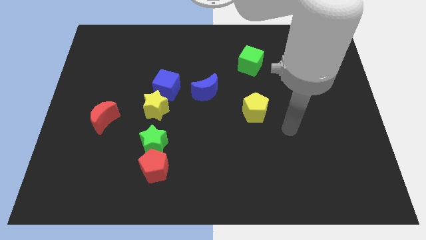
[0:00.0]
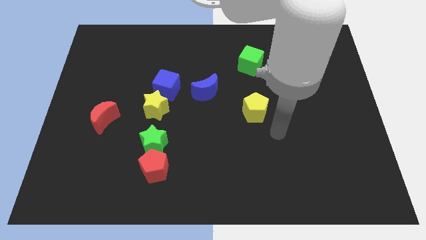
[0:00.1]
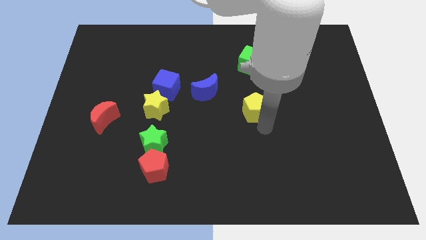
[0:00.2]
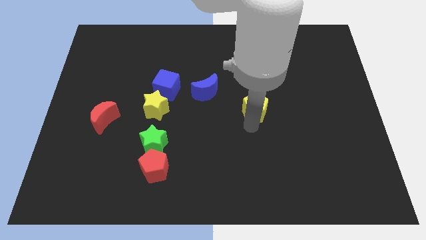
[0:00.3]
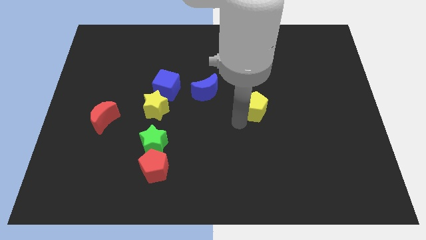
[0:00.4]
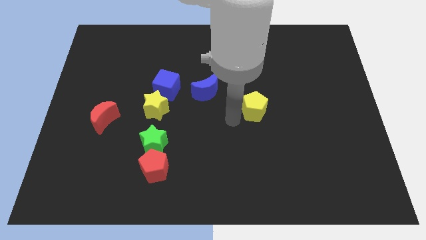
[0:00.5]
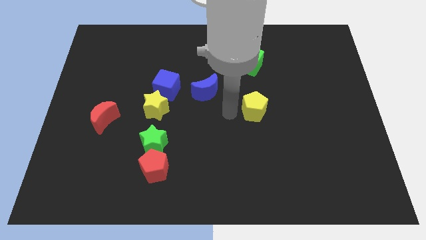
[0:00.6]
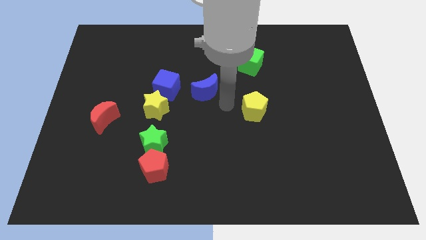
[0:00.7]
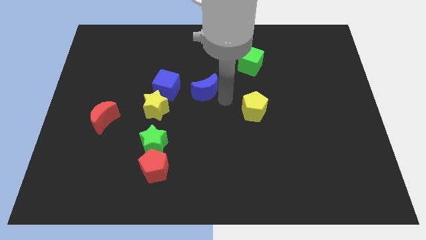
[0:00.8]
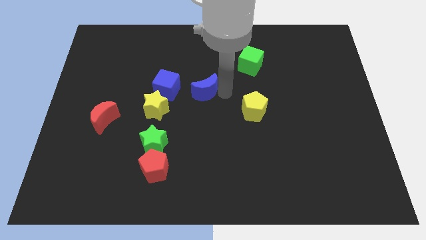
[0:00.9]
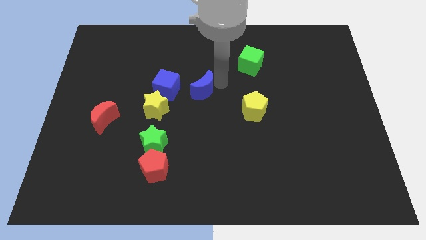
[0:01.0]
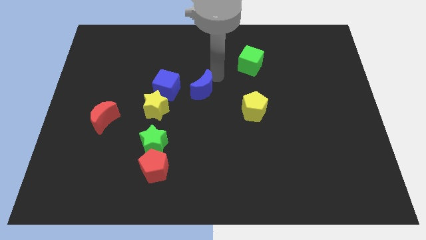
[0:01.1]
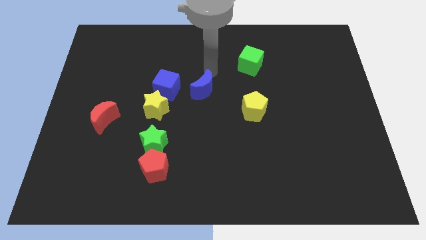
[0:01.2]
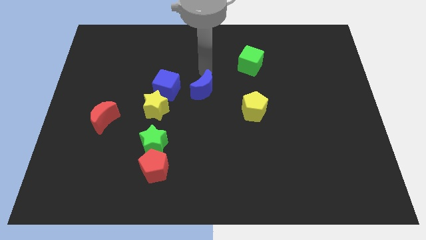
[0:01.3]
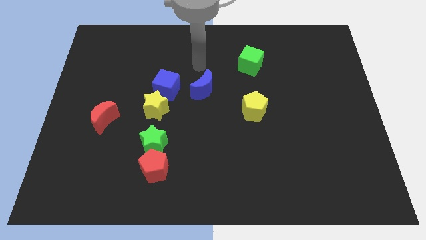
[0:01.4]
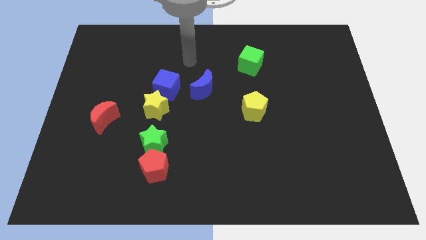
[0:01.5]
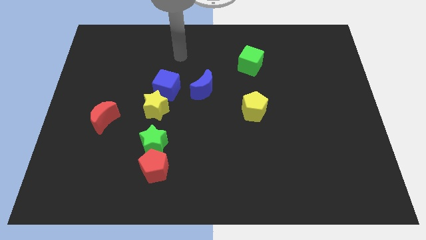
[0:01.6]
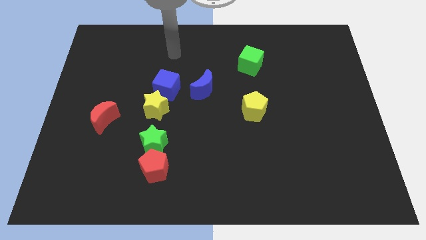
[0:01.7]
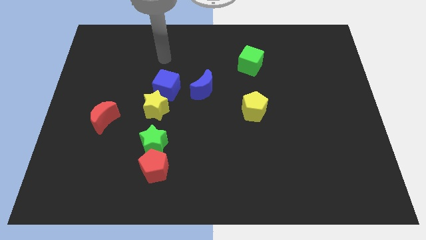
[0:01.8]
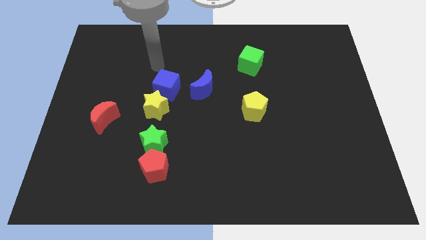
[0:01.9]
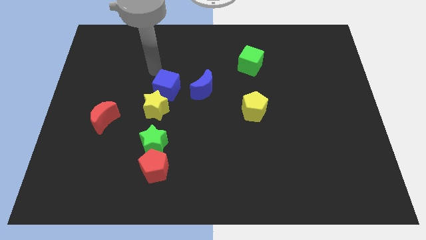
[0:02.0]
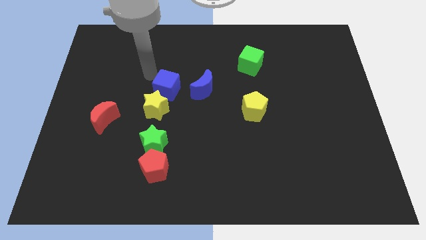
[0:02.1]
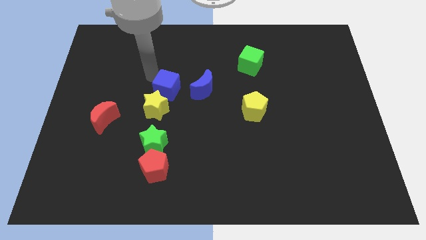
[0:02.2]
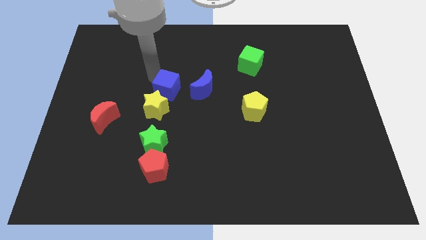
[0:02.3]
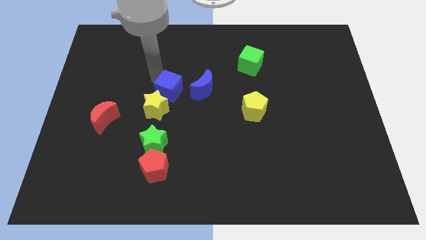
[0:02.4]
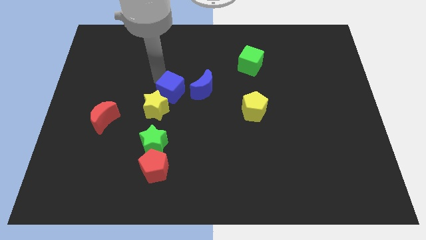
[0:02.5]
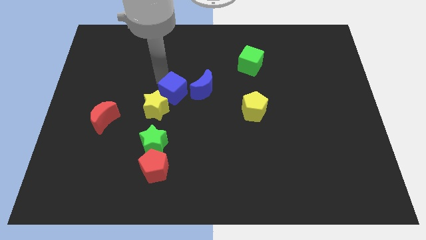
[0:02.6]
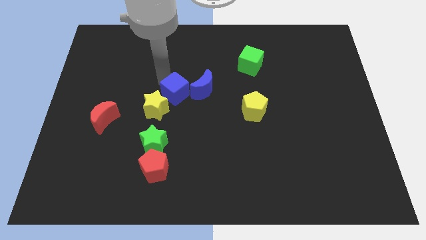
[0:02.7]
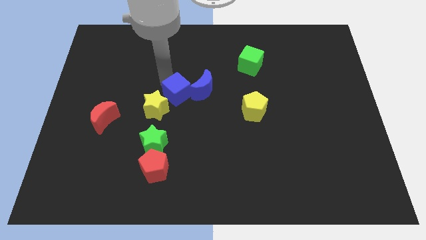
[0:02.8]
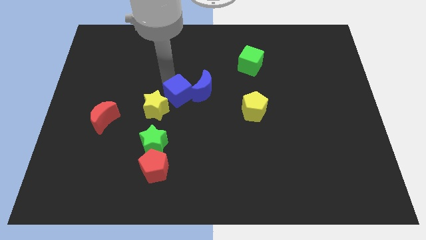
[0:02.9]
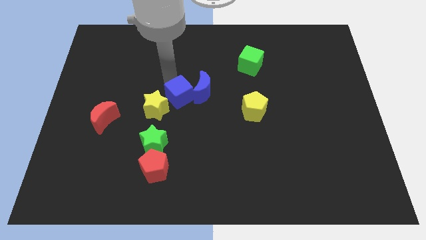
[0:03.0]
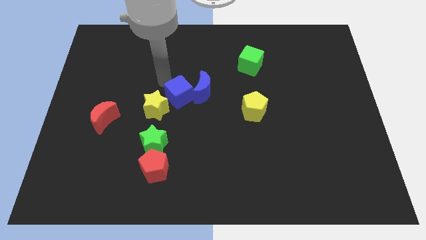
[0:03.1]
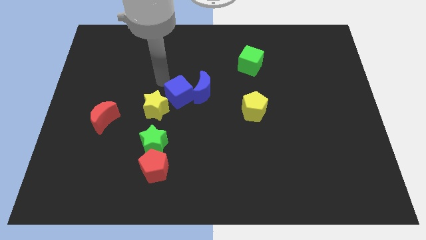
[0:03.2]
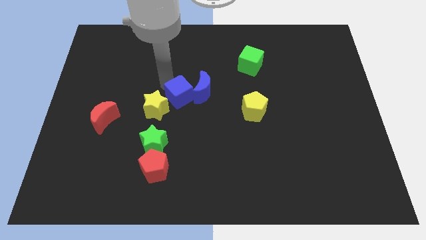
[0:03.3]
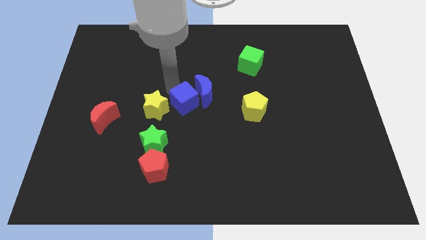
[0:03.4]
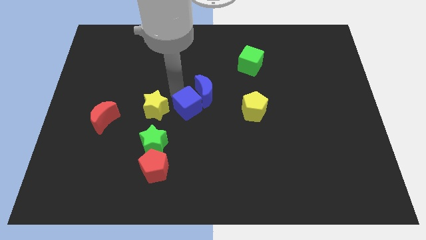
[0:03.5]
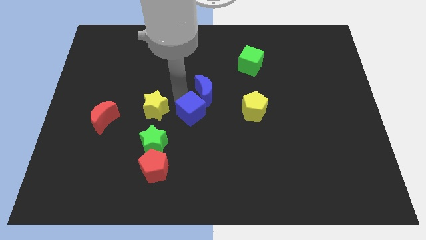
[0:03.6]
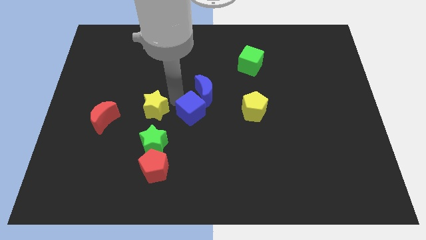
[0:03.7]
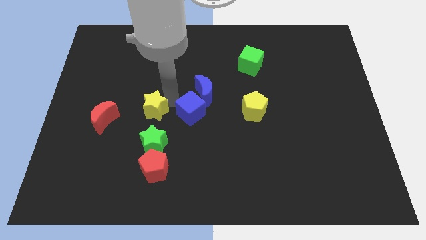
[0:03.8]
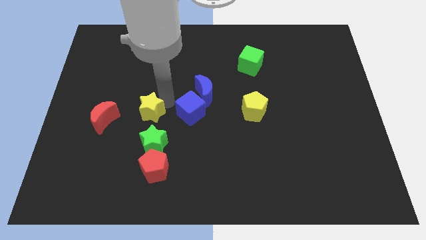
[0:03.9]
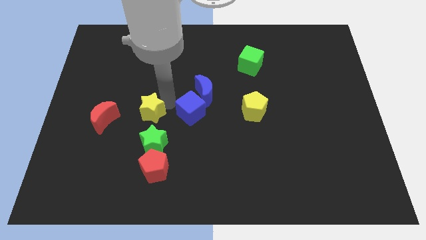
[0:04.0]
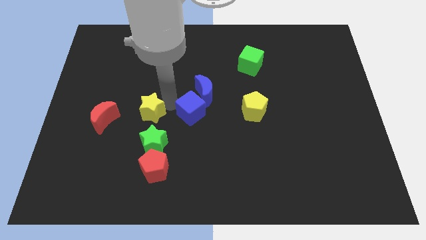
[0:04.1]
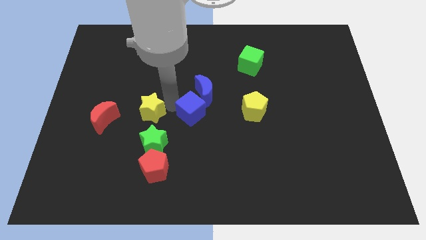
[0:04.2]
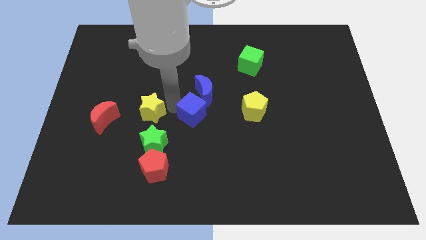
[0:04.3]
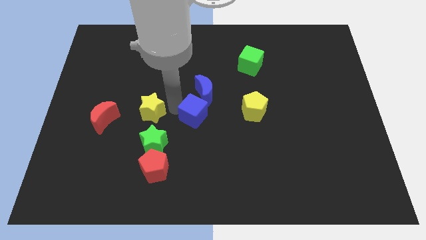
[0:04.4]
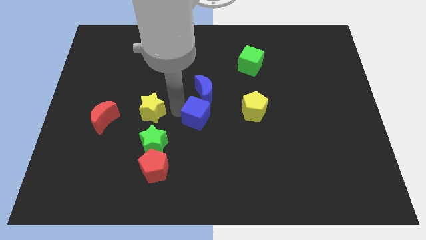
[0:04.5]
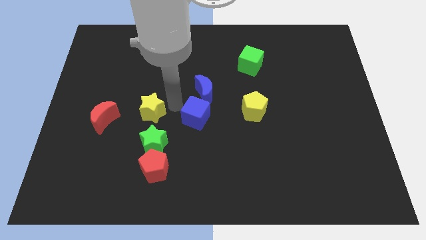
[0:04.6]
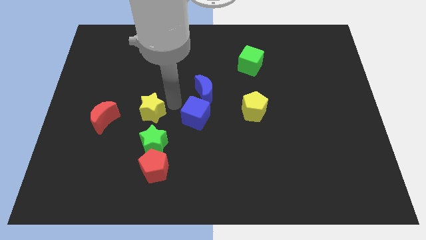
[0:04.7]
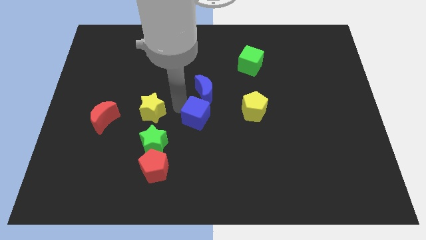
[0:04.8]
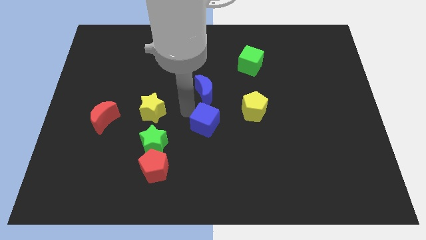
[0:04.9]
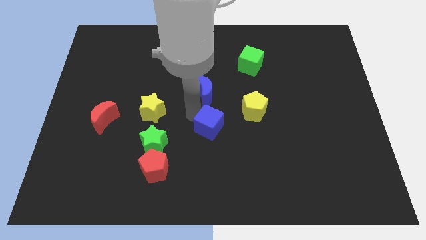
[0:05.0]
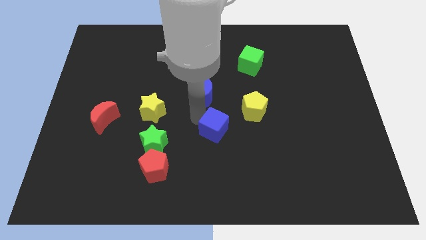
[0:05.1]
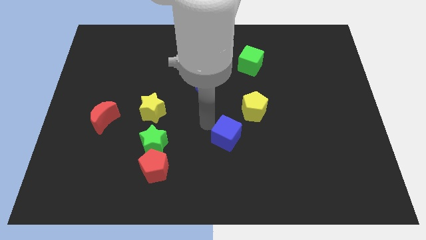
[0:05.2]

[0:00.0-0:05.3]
slide the blue cube down and to the right diagonally

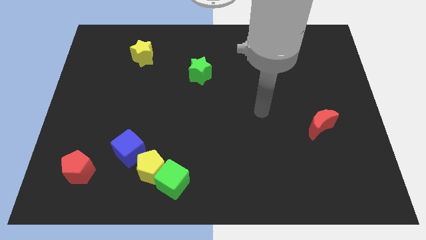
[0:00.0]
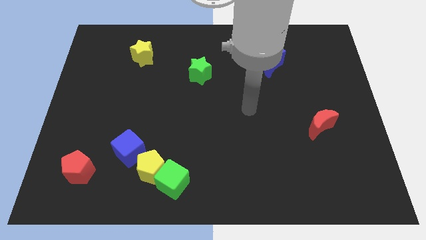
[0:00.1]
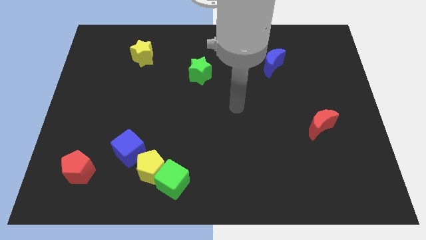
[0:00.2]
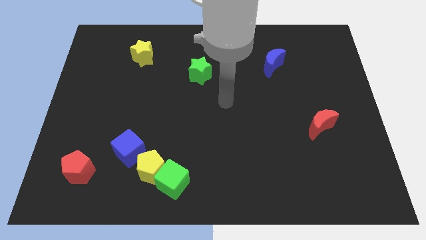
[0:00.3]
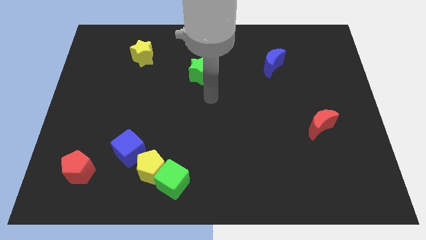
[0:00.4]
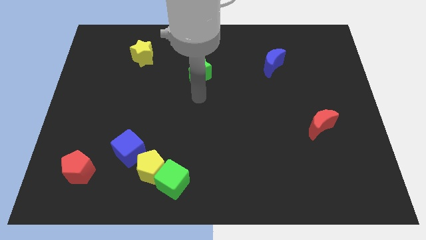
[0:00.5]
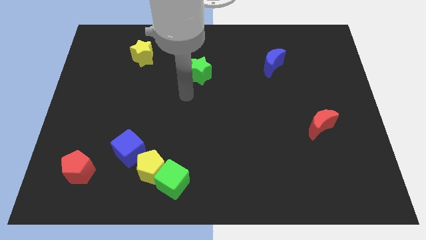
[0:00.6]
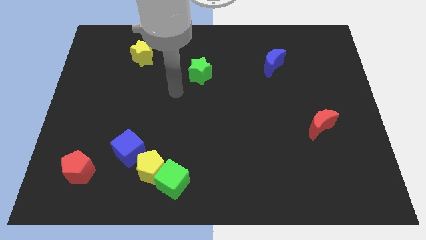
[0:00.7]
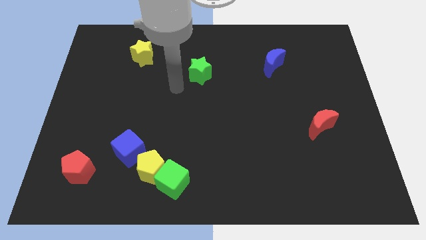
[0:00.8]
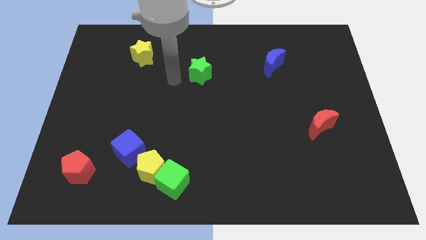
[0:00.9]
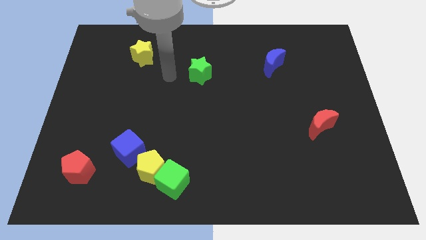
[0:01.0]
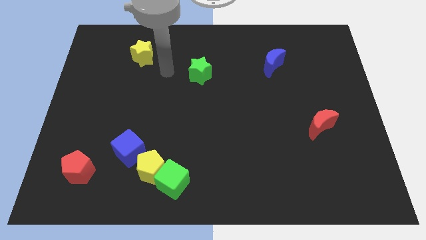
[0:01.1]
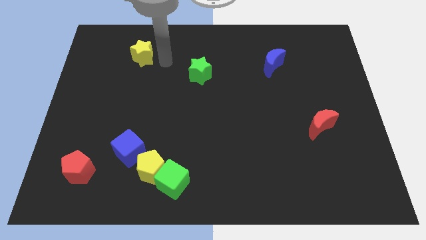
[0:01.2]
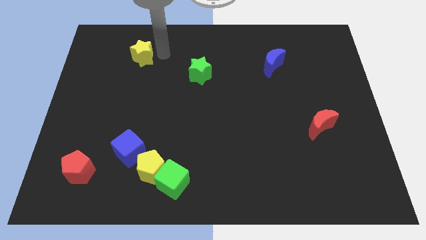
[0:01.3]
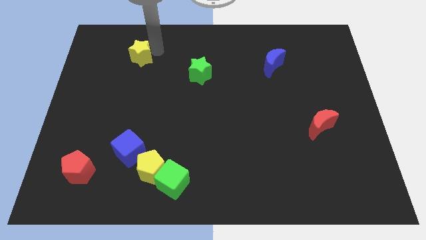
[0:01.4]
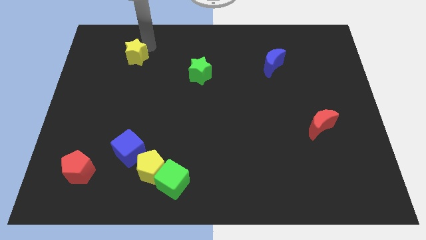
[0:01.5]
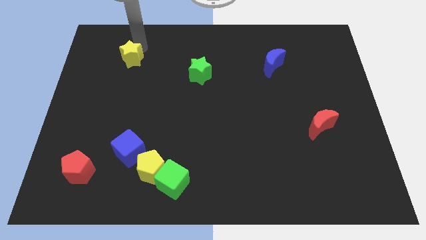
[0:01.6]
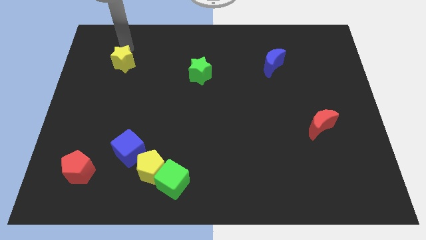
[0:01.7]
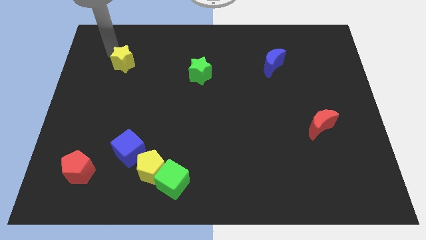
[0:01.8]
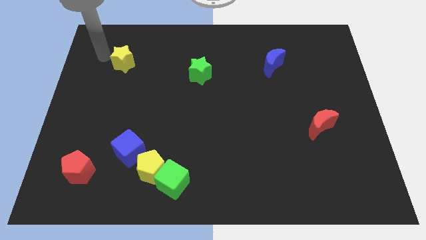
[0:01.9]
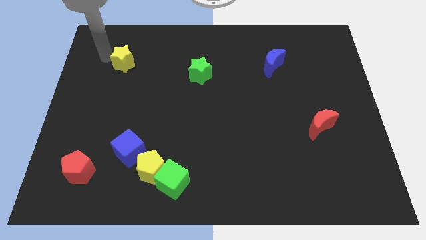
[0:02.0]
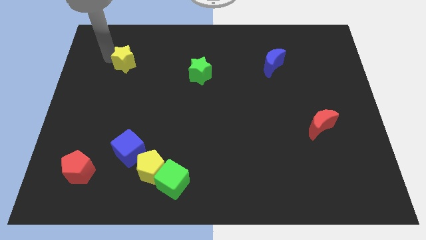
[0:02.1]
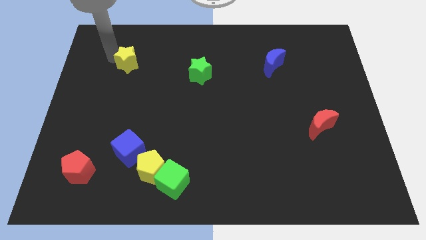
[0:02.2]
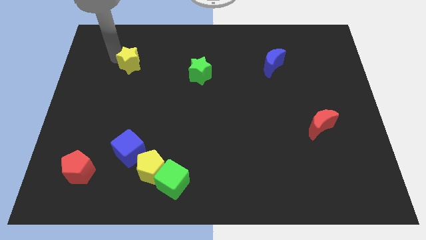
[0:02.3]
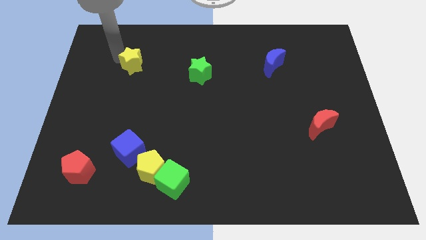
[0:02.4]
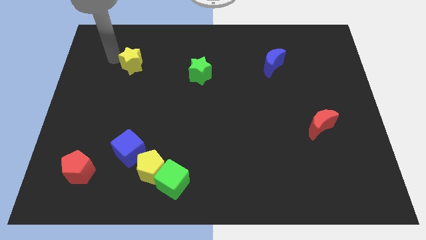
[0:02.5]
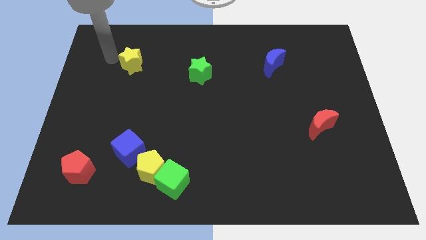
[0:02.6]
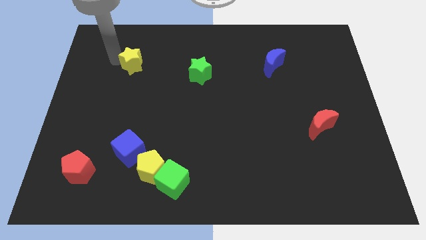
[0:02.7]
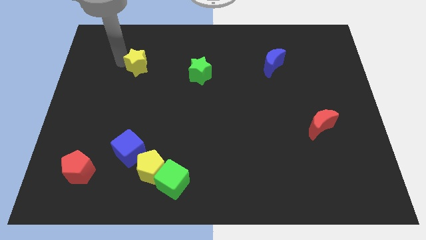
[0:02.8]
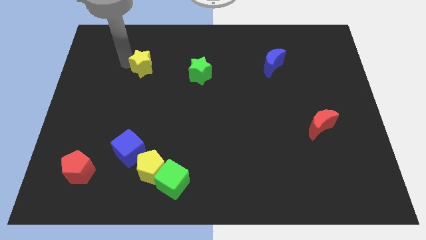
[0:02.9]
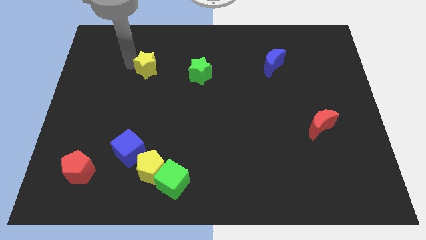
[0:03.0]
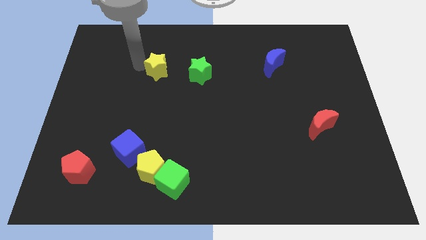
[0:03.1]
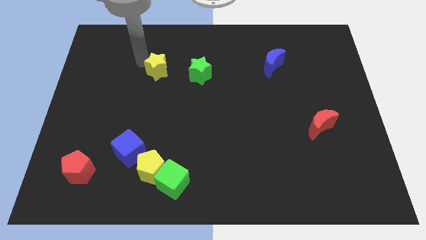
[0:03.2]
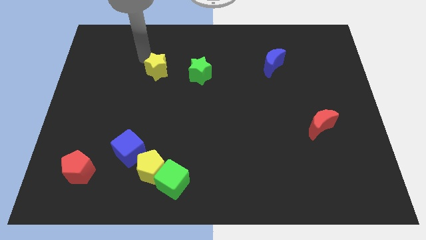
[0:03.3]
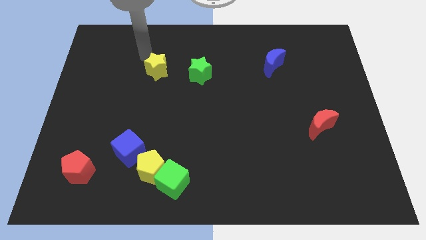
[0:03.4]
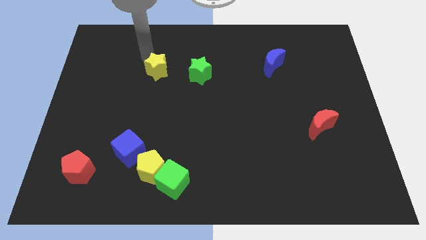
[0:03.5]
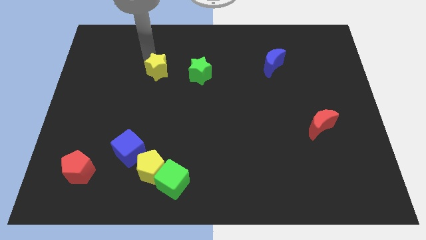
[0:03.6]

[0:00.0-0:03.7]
move the yellow star slightly downwards and to the right
